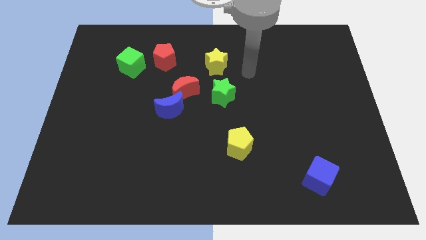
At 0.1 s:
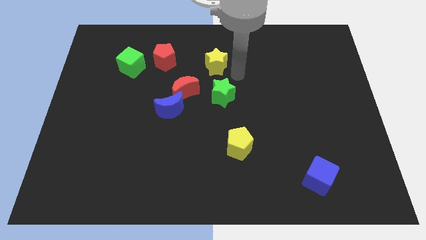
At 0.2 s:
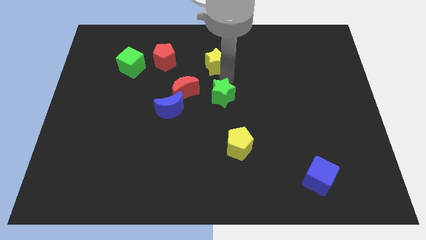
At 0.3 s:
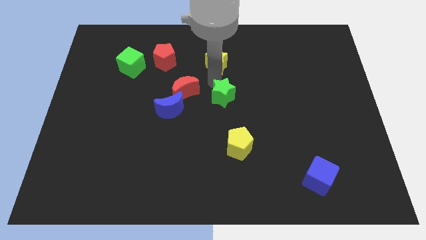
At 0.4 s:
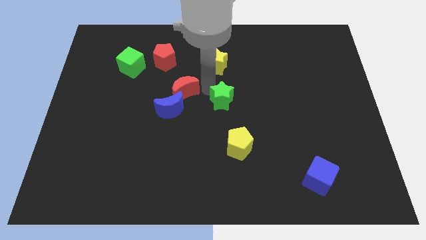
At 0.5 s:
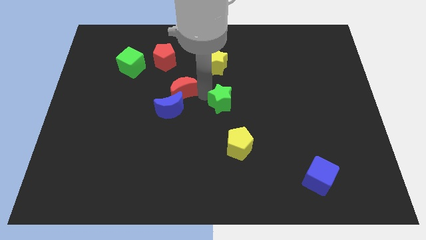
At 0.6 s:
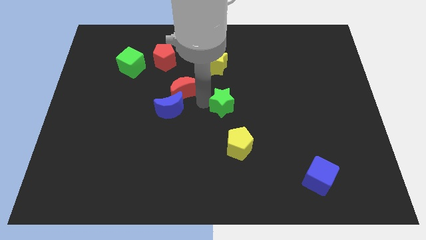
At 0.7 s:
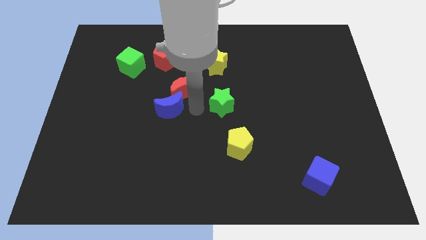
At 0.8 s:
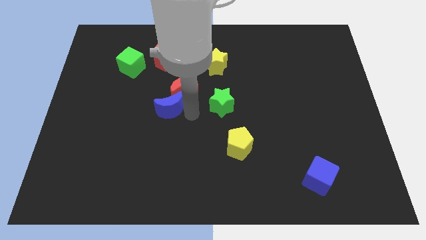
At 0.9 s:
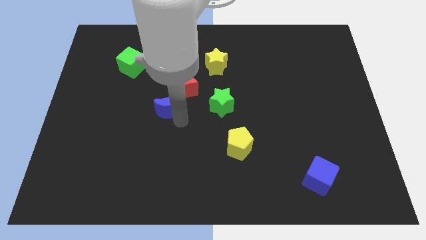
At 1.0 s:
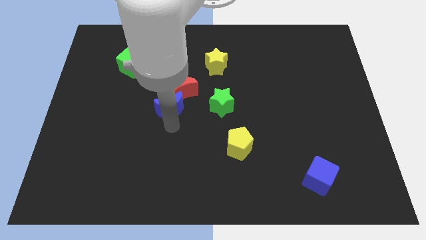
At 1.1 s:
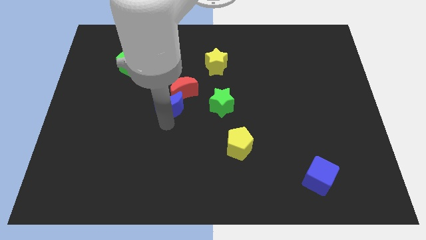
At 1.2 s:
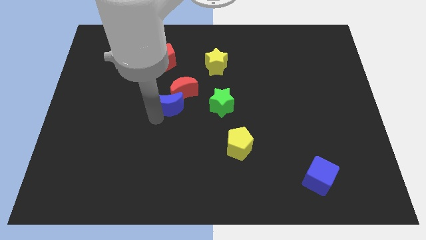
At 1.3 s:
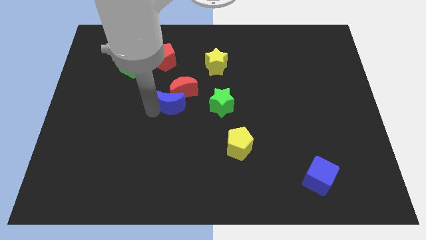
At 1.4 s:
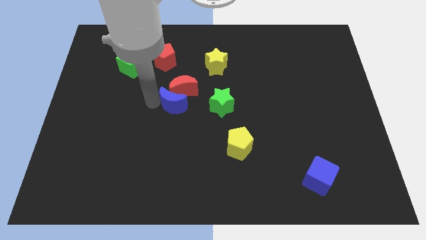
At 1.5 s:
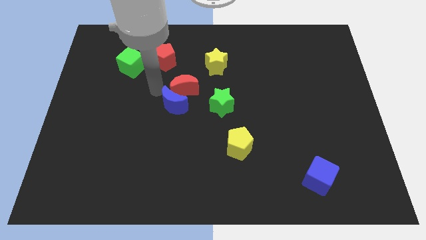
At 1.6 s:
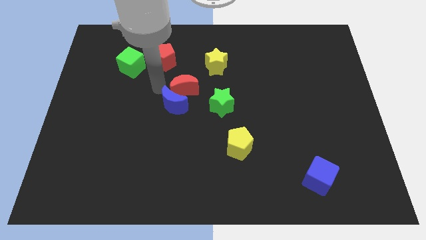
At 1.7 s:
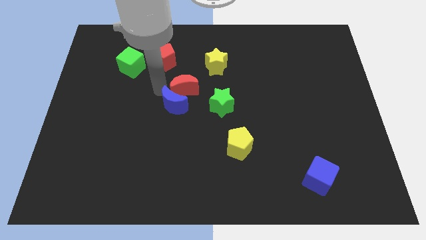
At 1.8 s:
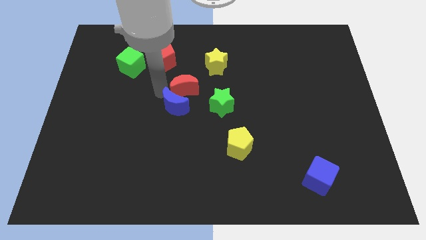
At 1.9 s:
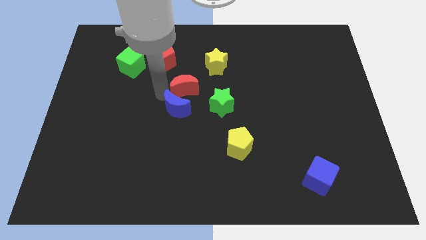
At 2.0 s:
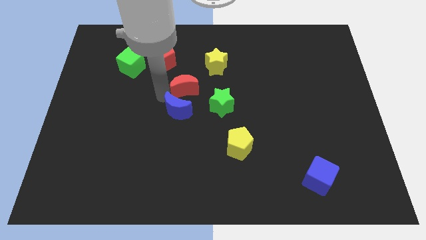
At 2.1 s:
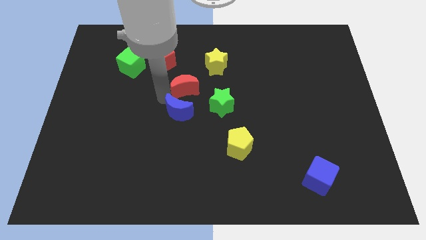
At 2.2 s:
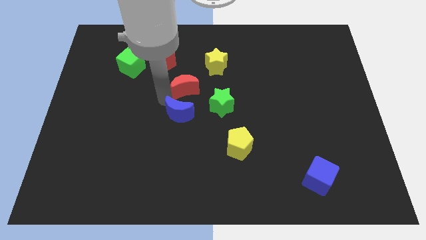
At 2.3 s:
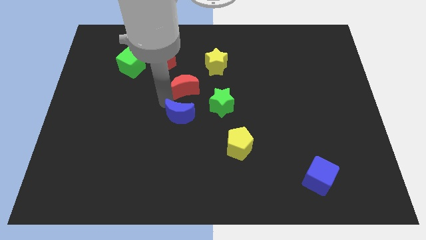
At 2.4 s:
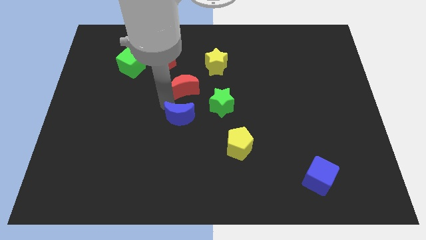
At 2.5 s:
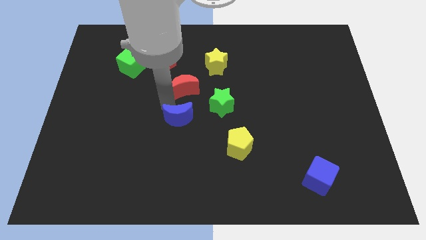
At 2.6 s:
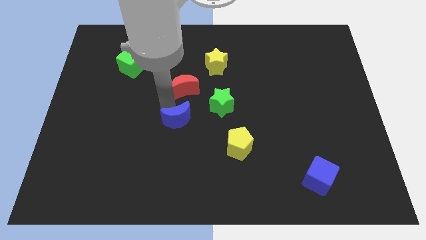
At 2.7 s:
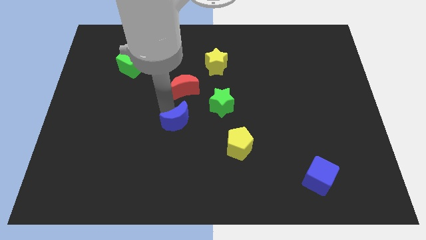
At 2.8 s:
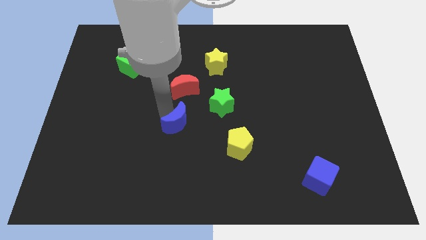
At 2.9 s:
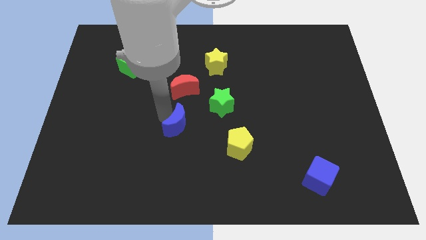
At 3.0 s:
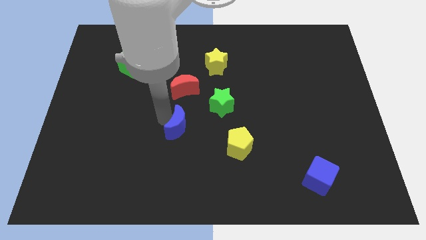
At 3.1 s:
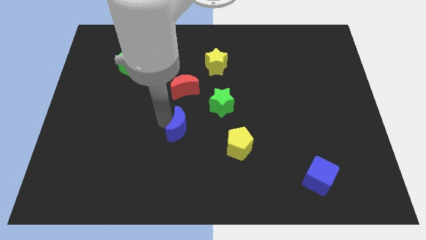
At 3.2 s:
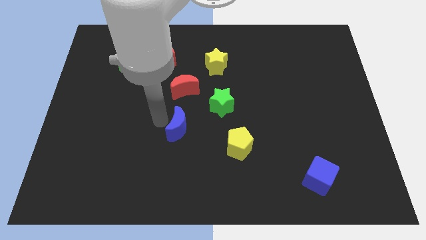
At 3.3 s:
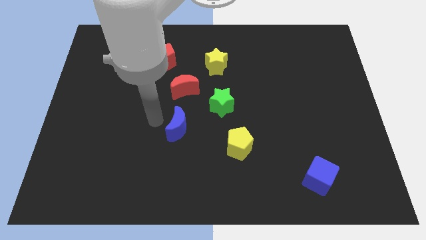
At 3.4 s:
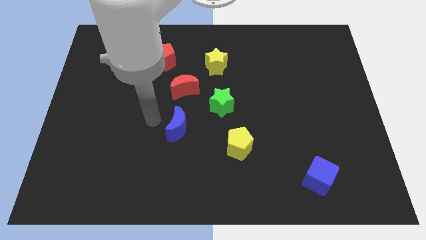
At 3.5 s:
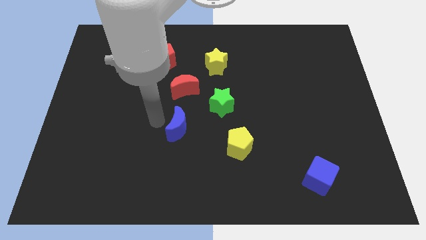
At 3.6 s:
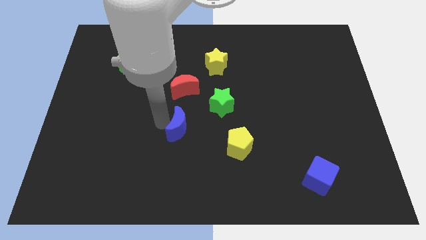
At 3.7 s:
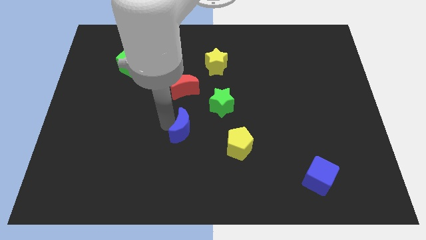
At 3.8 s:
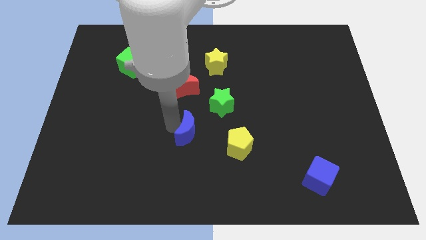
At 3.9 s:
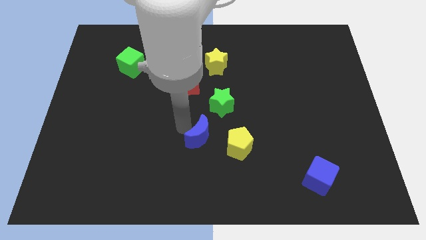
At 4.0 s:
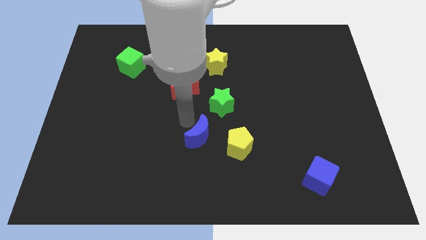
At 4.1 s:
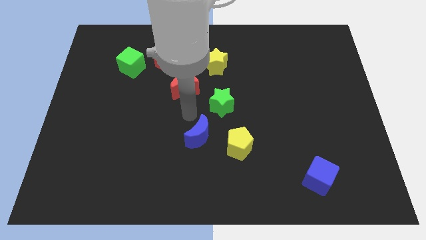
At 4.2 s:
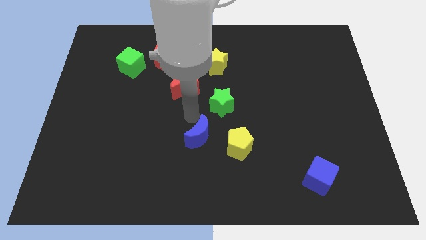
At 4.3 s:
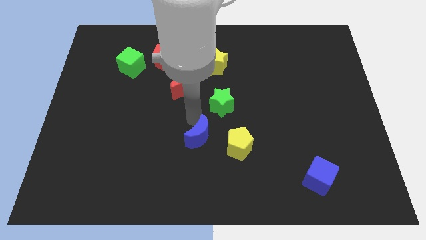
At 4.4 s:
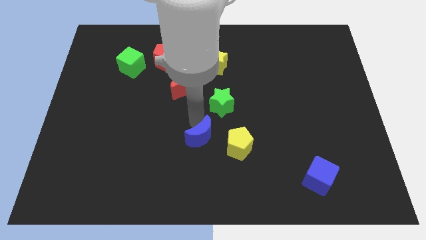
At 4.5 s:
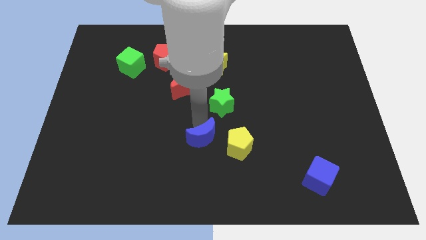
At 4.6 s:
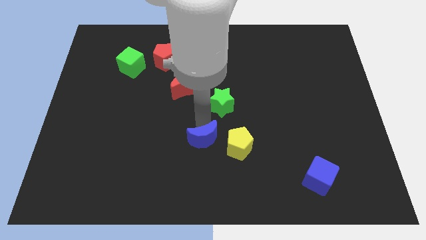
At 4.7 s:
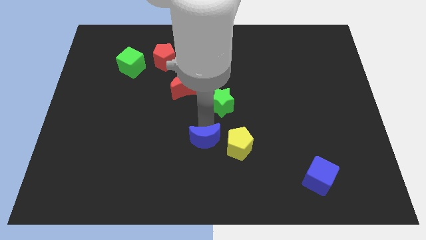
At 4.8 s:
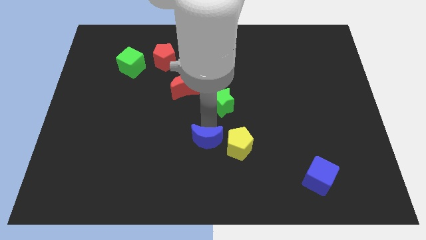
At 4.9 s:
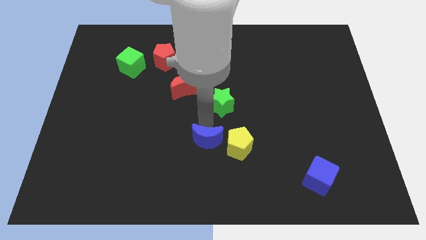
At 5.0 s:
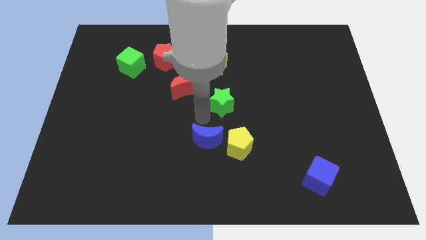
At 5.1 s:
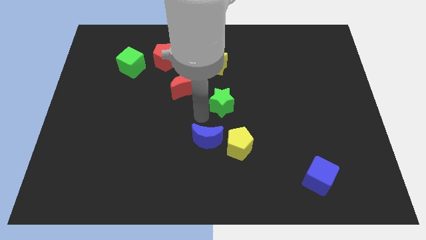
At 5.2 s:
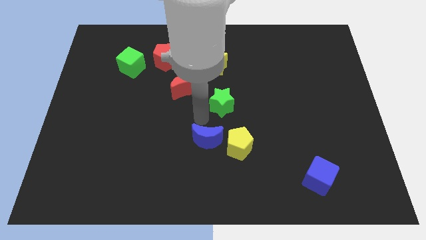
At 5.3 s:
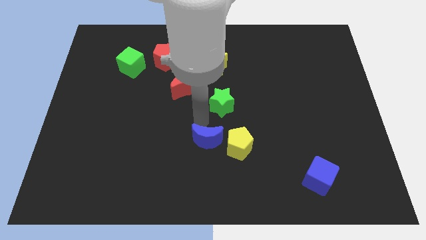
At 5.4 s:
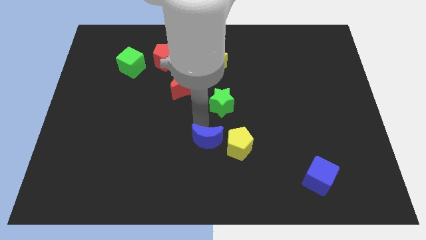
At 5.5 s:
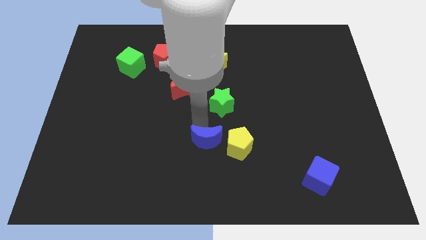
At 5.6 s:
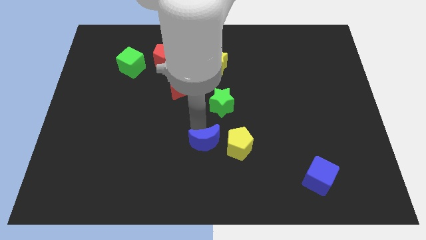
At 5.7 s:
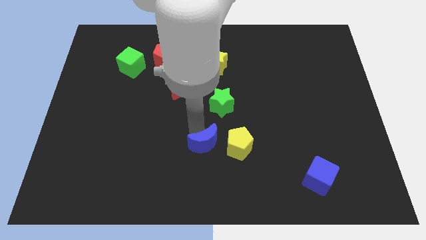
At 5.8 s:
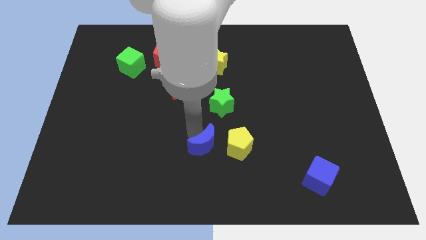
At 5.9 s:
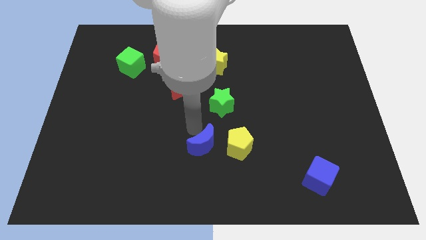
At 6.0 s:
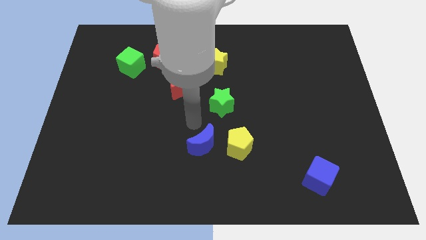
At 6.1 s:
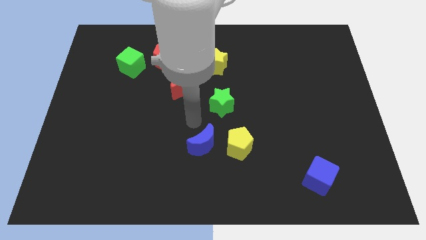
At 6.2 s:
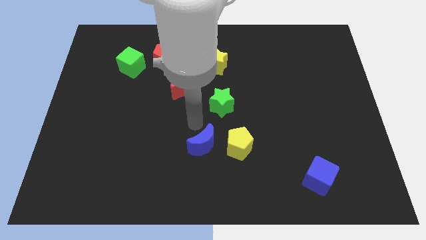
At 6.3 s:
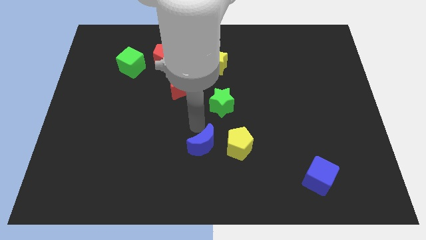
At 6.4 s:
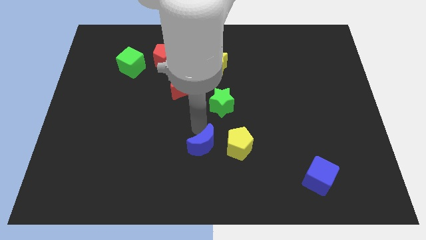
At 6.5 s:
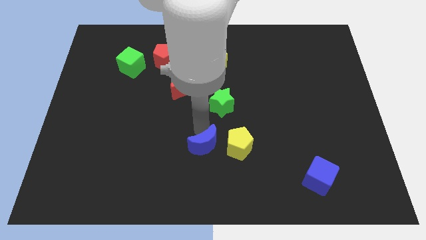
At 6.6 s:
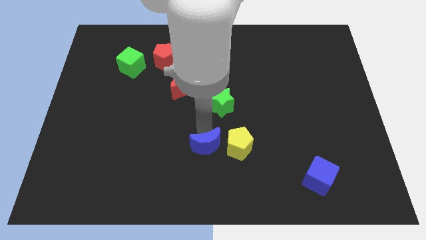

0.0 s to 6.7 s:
put the blue moon diagonally down and to the left of the yellow pentagon

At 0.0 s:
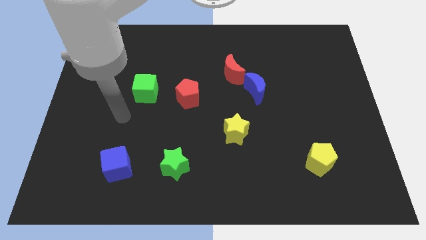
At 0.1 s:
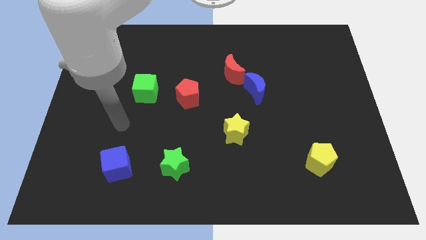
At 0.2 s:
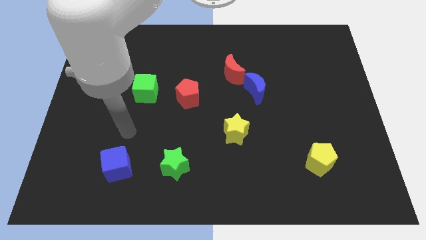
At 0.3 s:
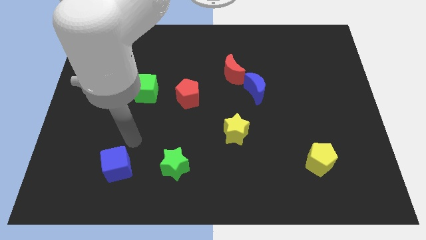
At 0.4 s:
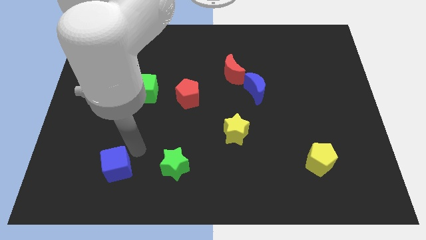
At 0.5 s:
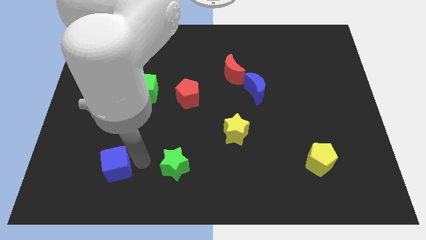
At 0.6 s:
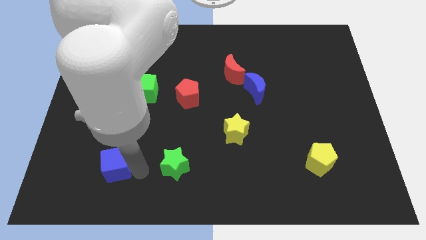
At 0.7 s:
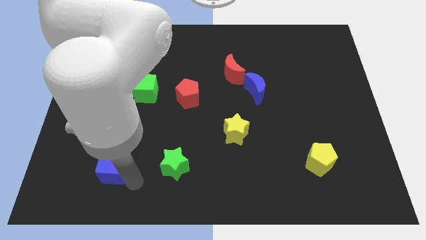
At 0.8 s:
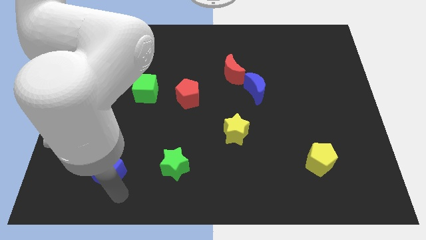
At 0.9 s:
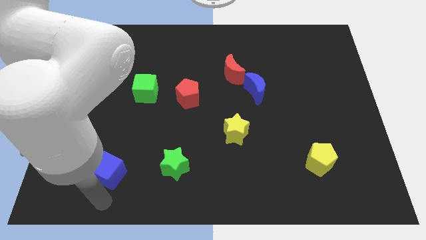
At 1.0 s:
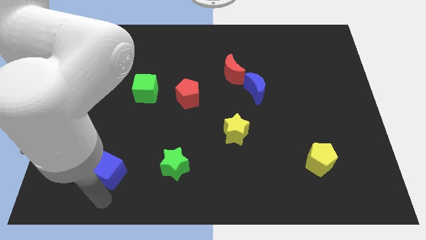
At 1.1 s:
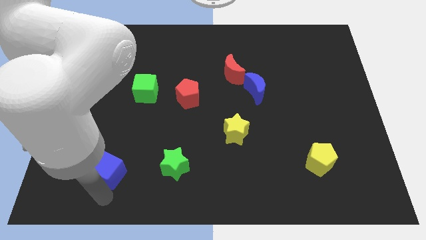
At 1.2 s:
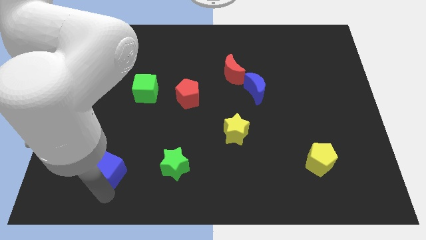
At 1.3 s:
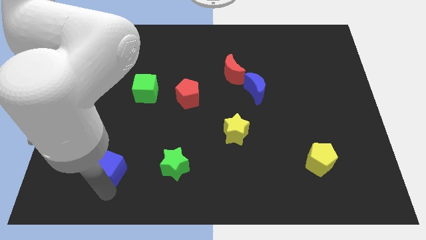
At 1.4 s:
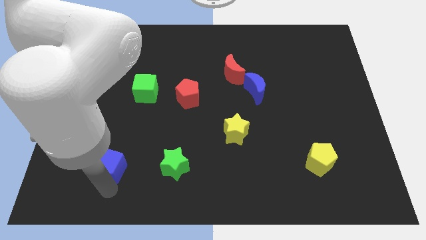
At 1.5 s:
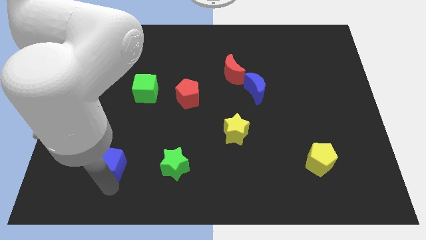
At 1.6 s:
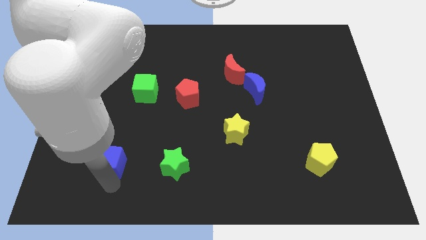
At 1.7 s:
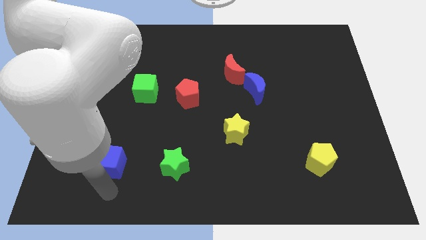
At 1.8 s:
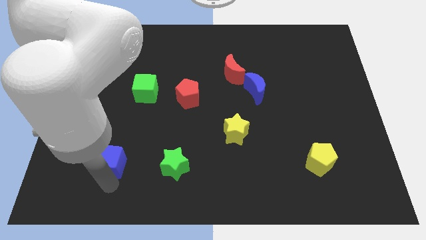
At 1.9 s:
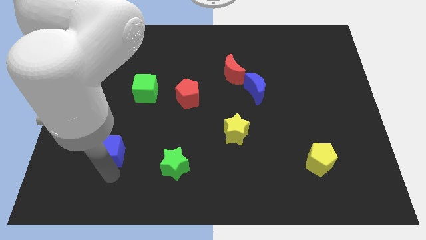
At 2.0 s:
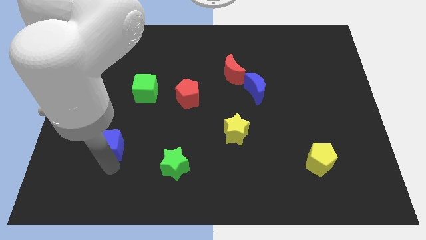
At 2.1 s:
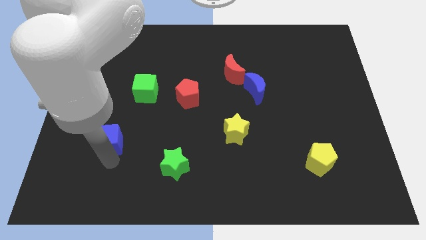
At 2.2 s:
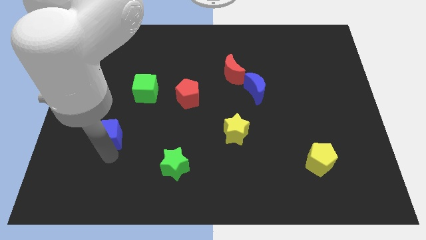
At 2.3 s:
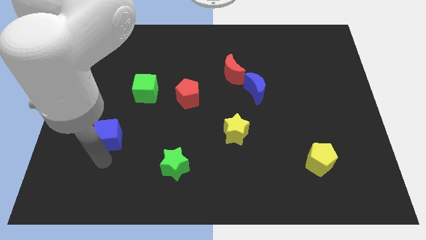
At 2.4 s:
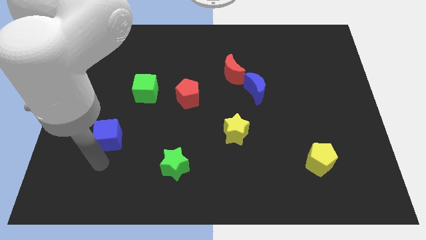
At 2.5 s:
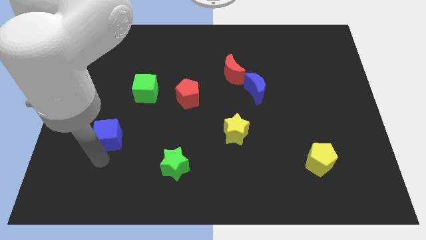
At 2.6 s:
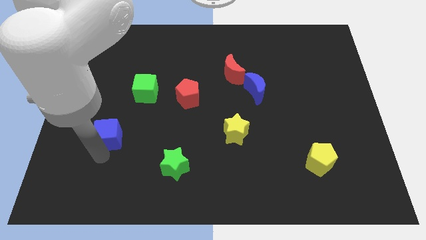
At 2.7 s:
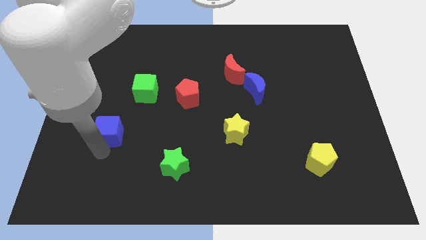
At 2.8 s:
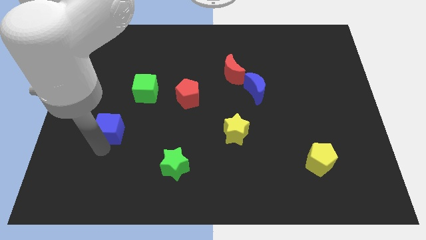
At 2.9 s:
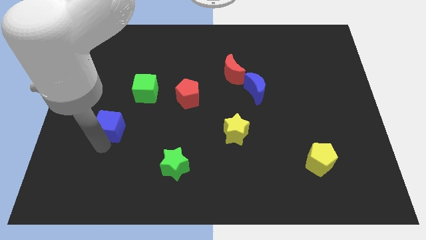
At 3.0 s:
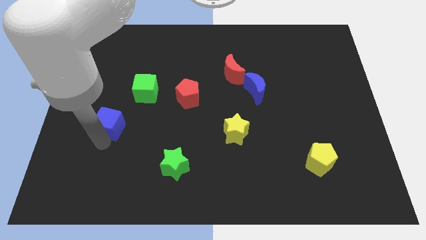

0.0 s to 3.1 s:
put the blue cube to the bottom left of the green cube
